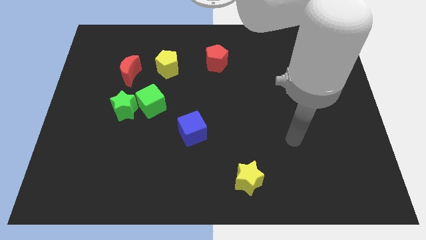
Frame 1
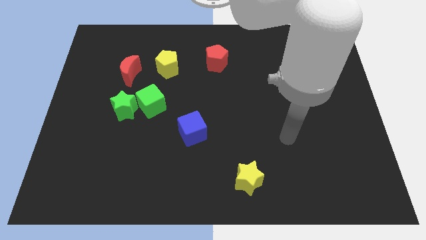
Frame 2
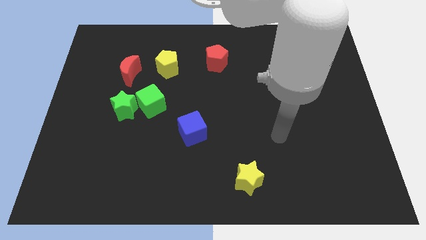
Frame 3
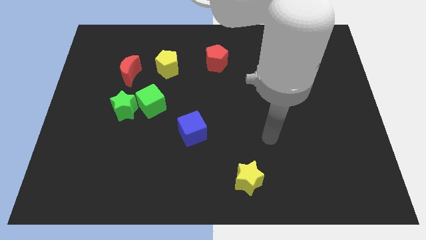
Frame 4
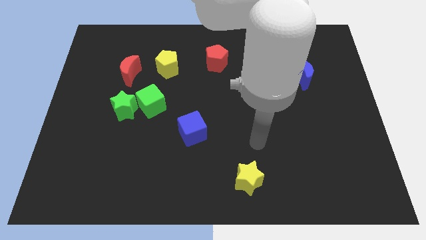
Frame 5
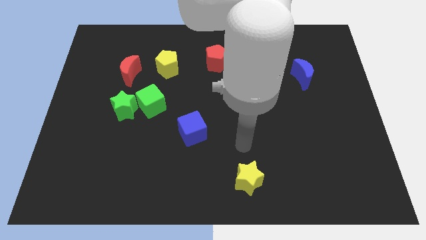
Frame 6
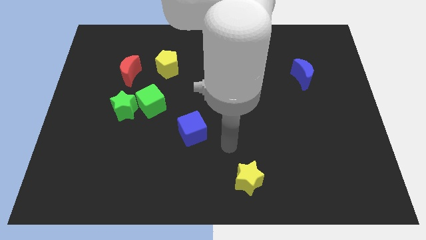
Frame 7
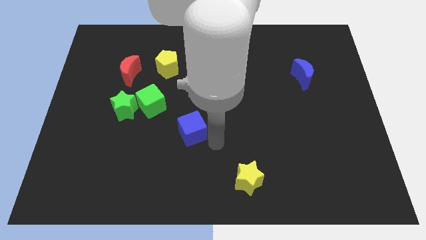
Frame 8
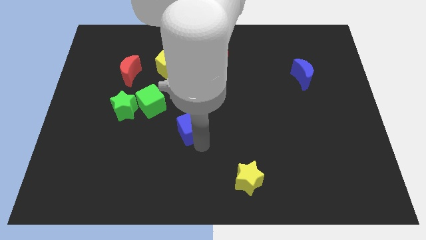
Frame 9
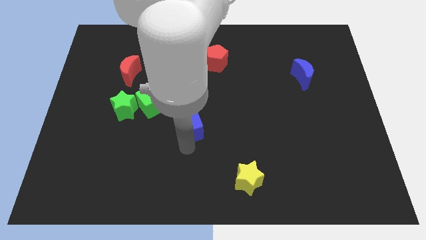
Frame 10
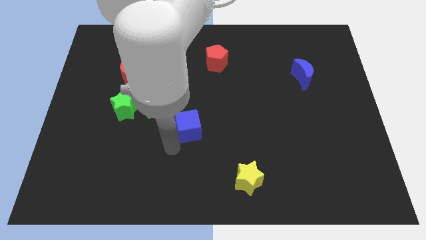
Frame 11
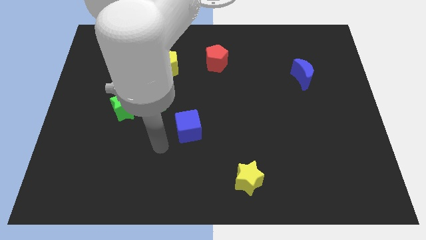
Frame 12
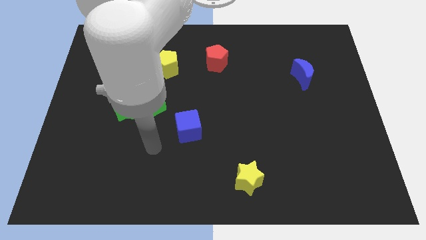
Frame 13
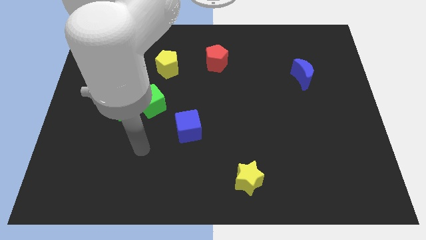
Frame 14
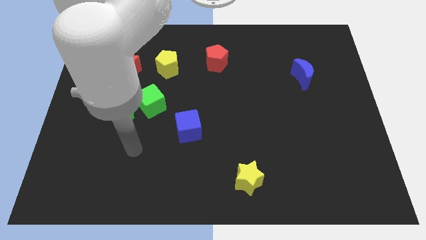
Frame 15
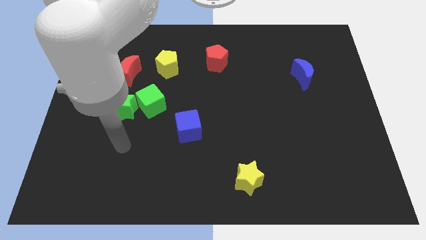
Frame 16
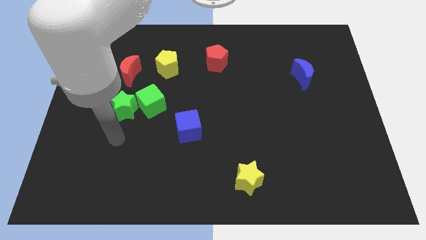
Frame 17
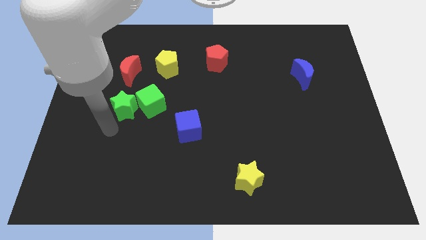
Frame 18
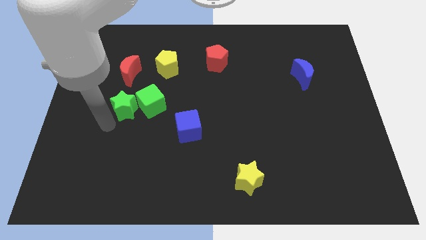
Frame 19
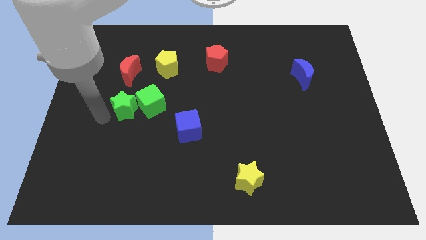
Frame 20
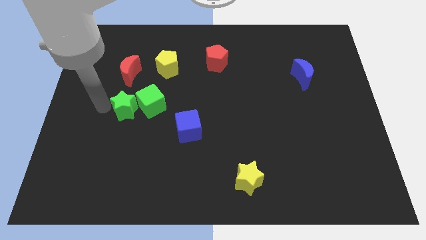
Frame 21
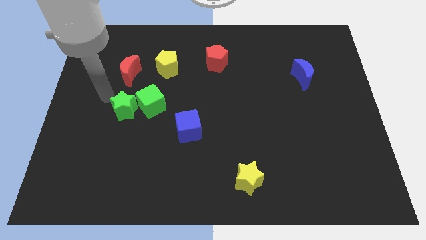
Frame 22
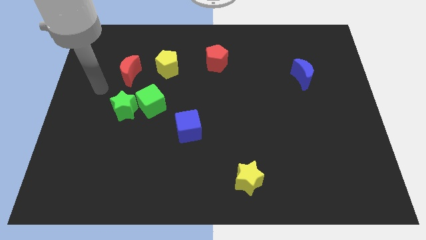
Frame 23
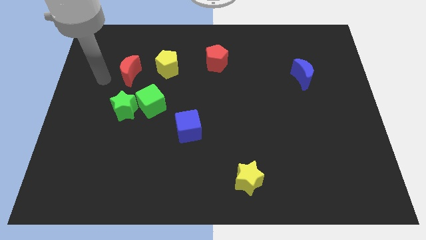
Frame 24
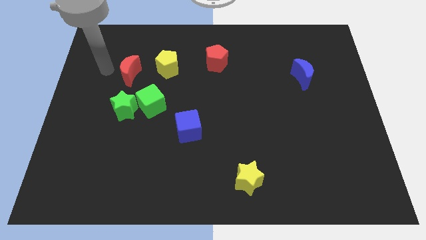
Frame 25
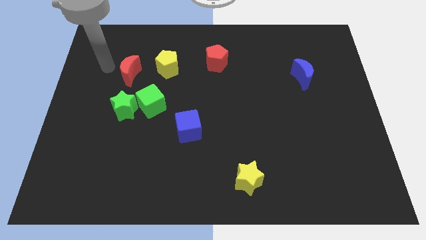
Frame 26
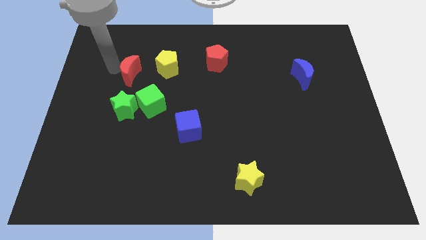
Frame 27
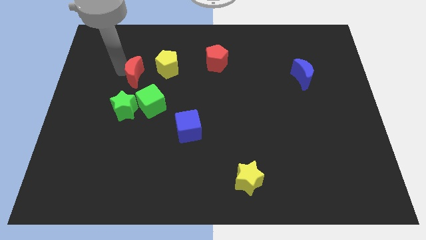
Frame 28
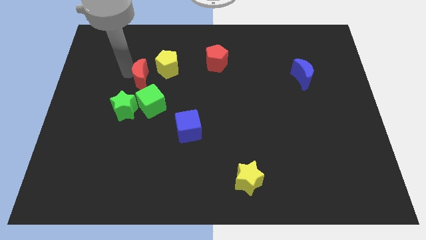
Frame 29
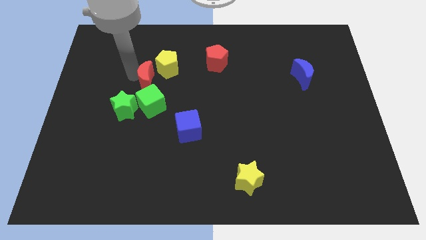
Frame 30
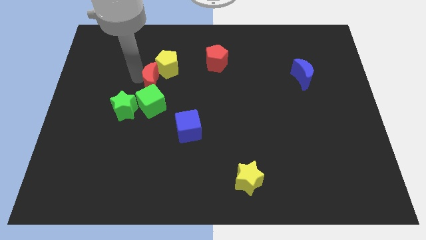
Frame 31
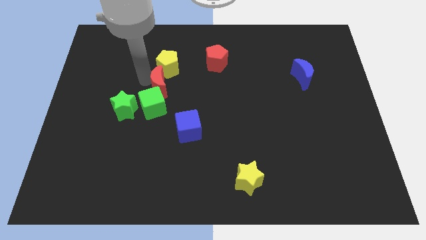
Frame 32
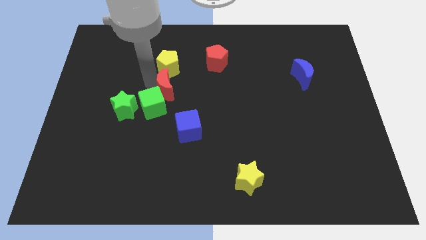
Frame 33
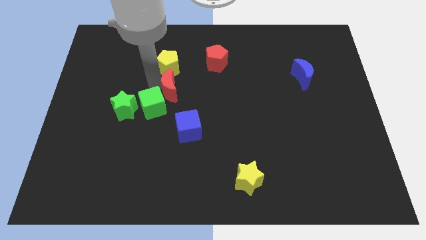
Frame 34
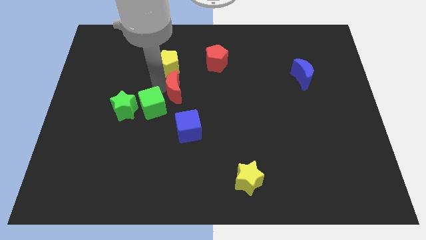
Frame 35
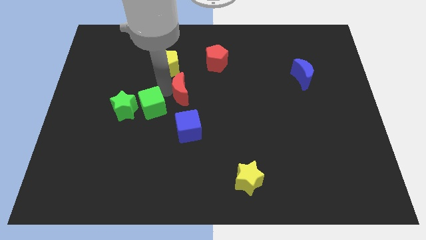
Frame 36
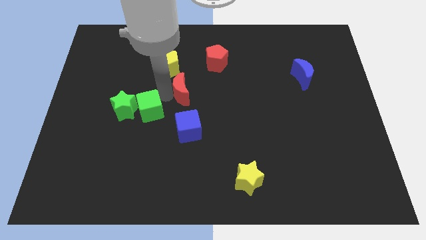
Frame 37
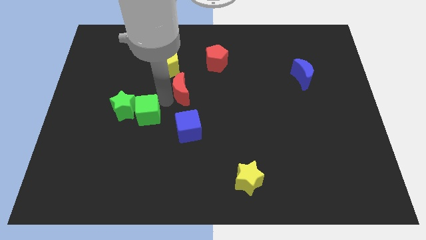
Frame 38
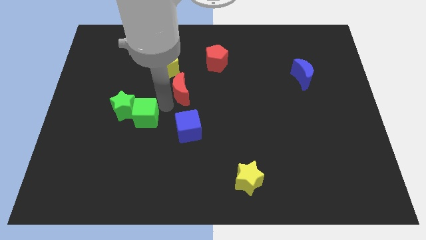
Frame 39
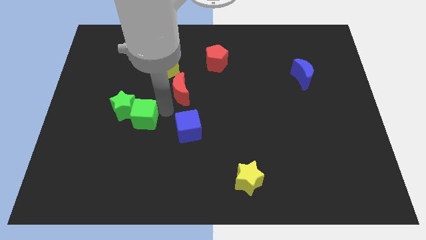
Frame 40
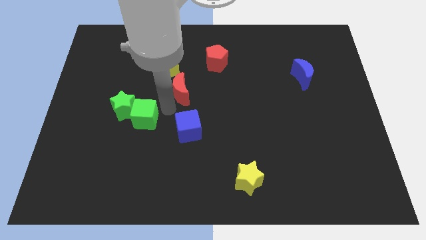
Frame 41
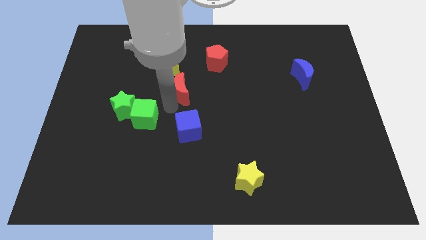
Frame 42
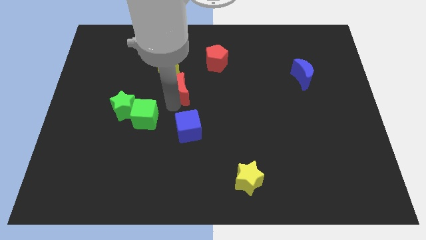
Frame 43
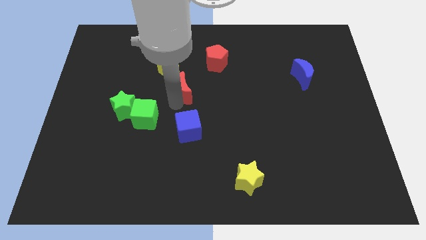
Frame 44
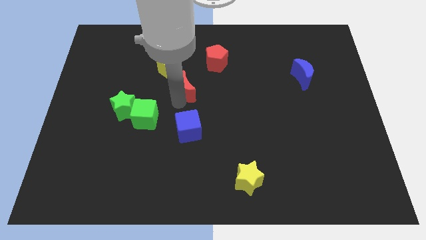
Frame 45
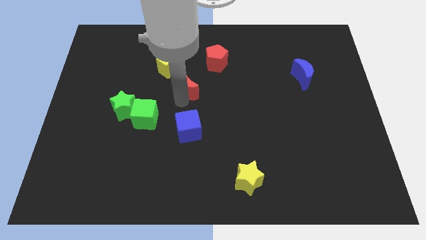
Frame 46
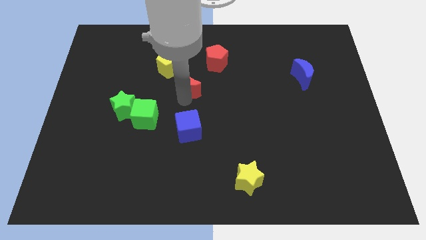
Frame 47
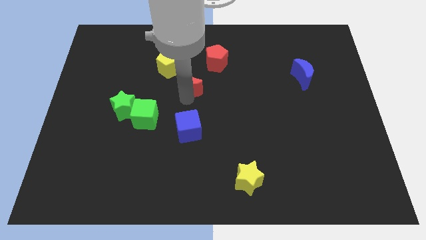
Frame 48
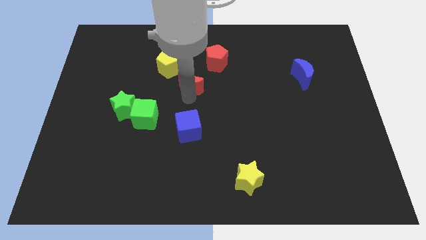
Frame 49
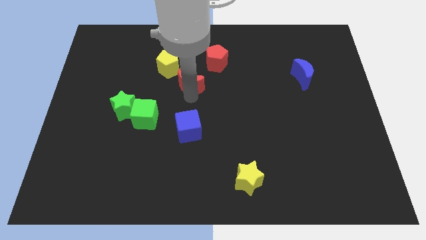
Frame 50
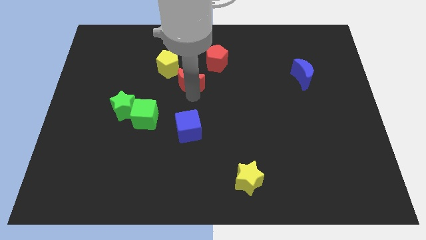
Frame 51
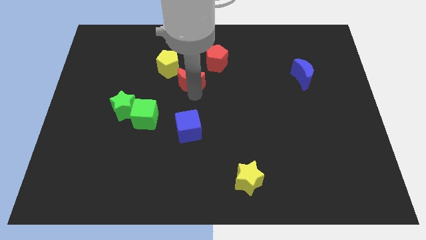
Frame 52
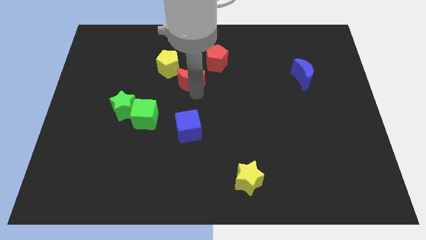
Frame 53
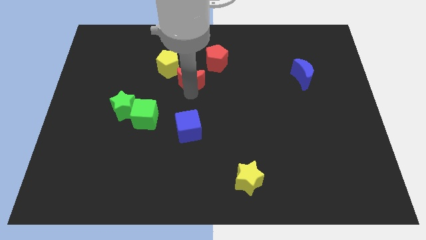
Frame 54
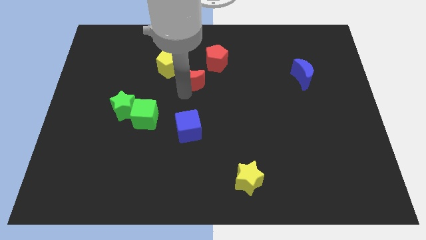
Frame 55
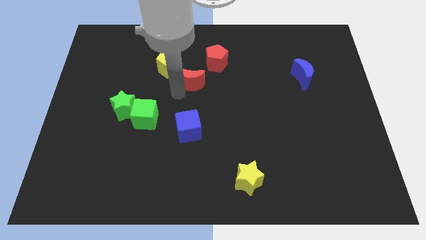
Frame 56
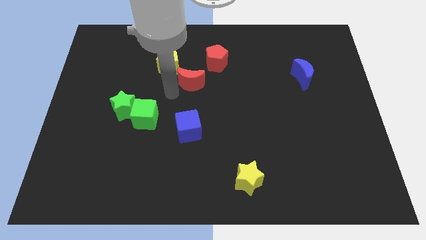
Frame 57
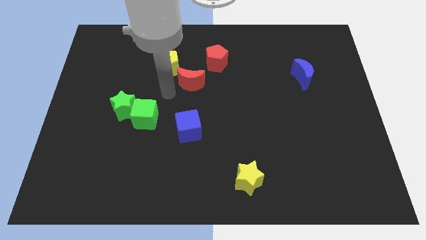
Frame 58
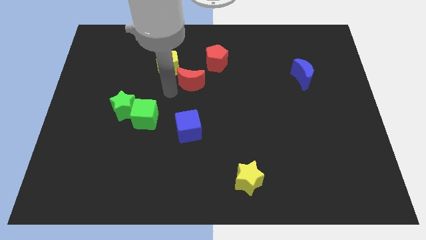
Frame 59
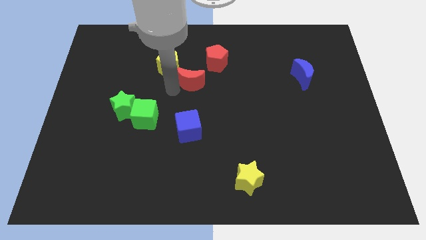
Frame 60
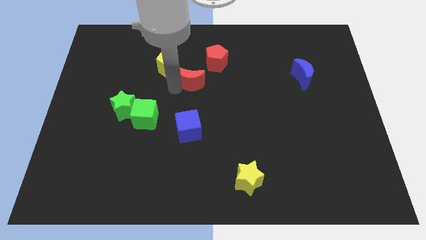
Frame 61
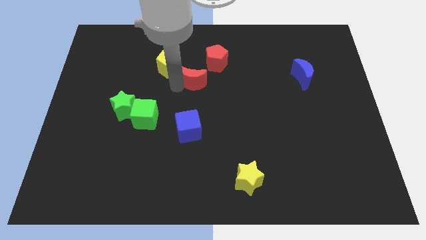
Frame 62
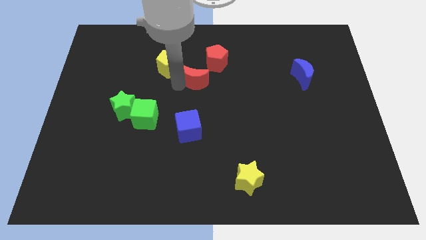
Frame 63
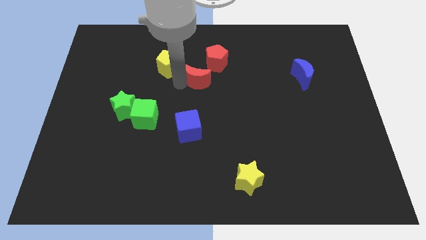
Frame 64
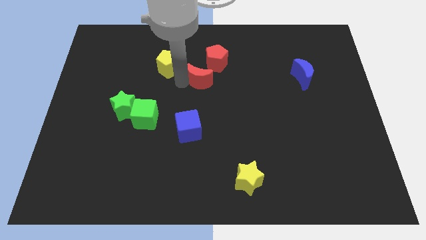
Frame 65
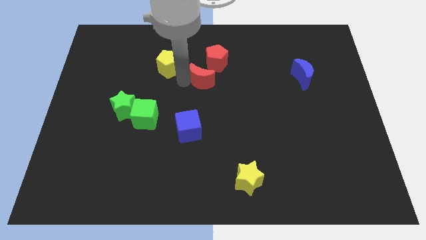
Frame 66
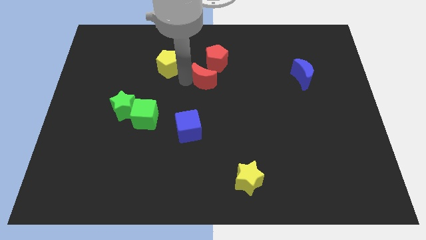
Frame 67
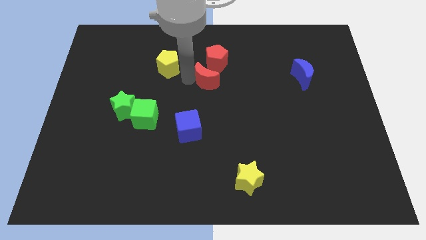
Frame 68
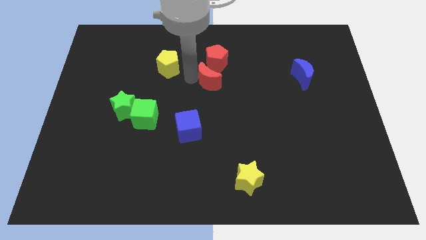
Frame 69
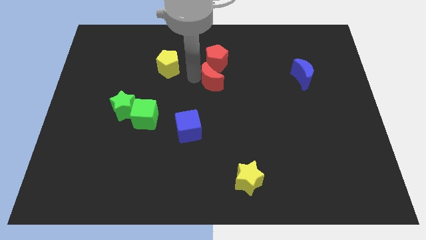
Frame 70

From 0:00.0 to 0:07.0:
push the red moon right

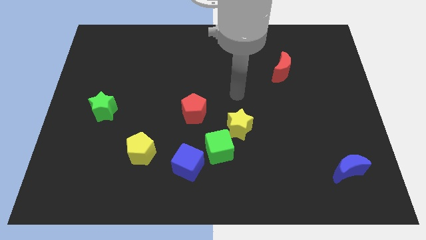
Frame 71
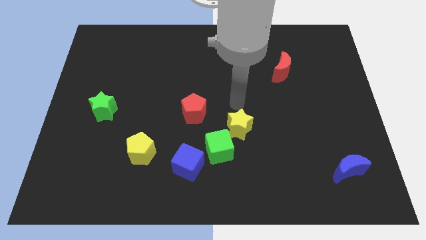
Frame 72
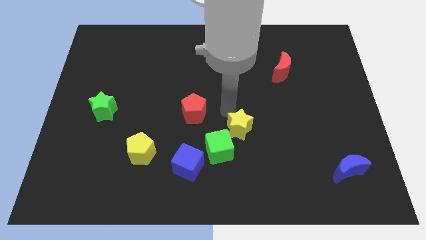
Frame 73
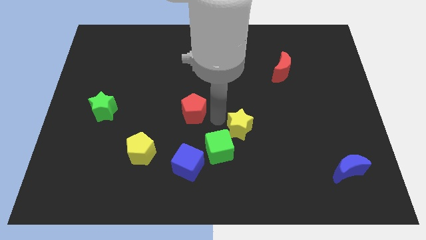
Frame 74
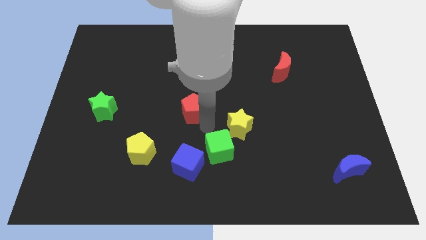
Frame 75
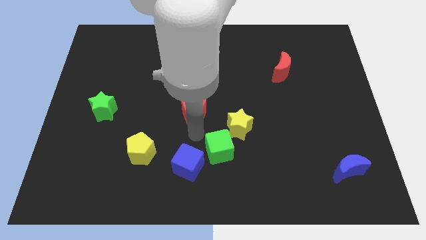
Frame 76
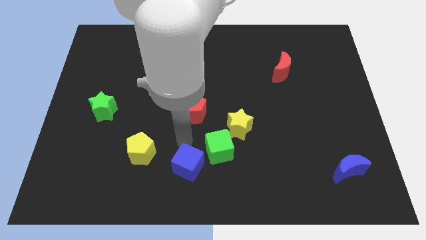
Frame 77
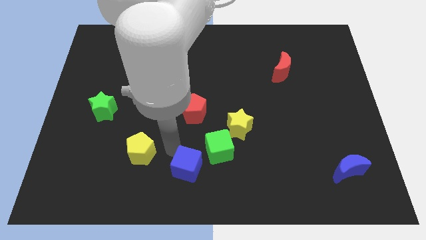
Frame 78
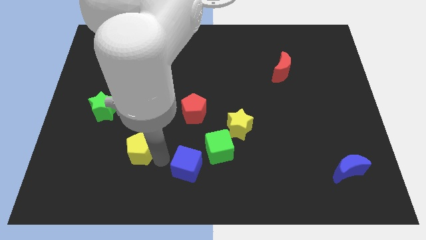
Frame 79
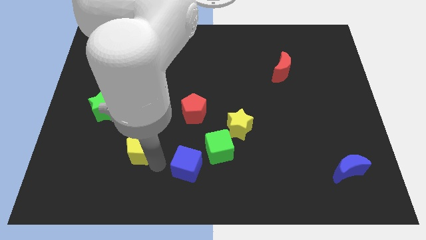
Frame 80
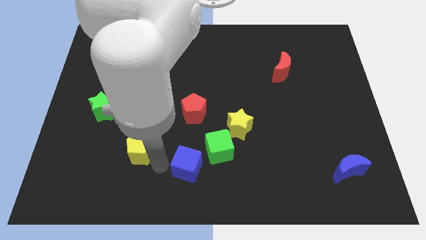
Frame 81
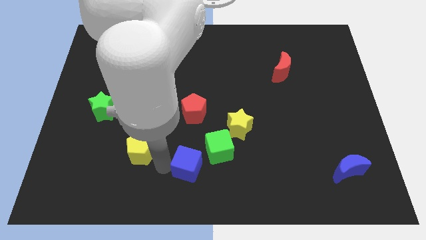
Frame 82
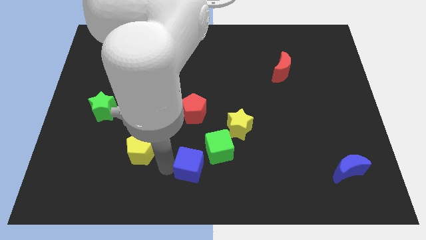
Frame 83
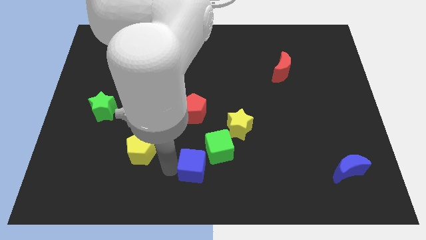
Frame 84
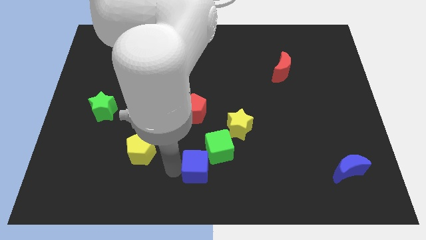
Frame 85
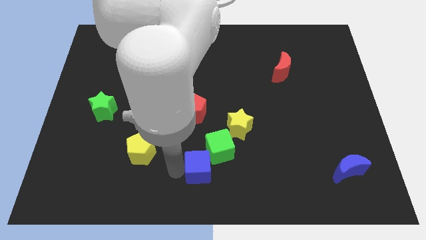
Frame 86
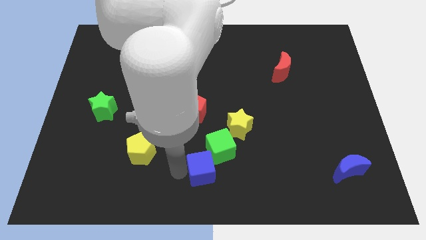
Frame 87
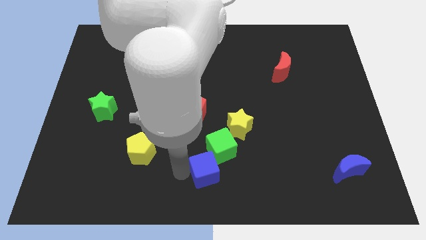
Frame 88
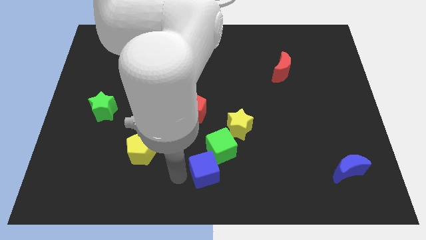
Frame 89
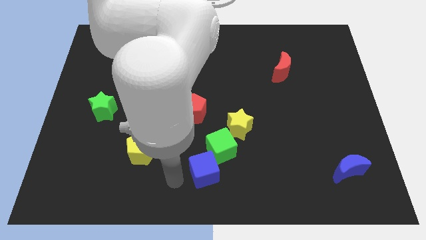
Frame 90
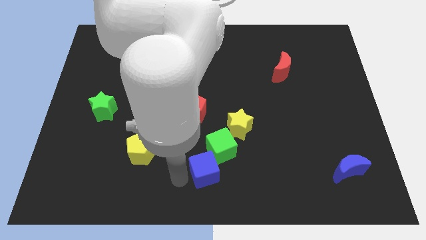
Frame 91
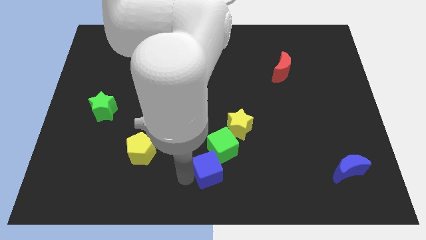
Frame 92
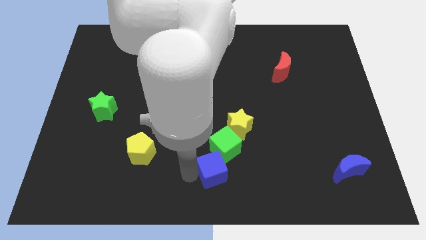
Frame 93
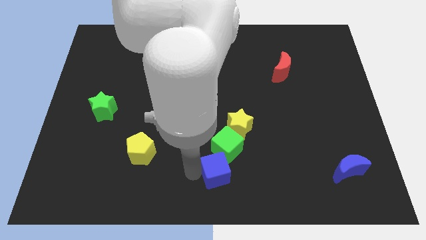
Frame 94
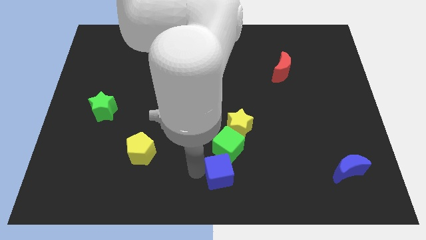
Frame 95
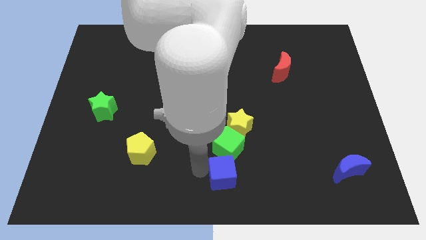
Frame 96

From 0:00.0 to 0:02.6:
push the blue cube to the right a little bit
